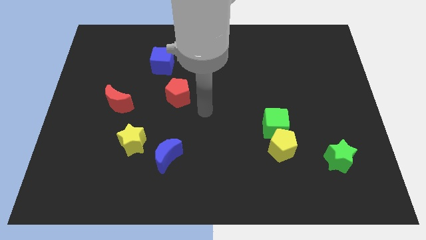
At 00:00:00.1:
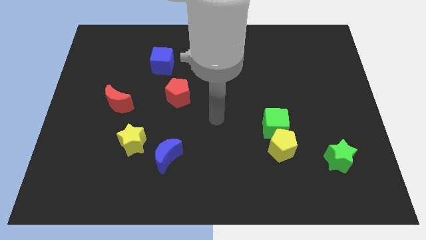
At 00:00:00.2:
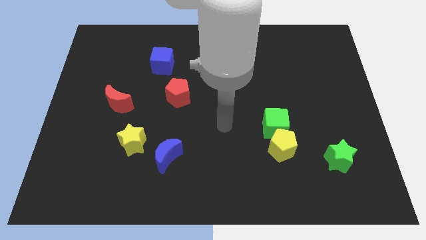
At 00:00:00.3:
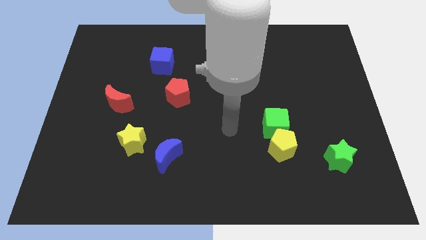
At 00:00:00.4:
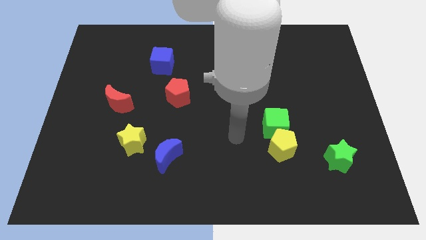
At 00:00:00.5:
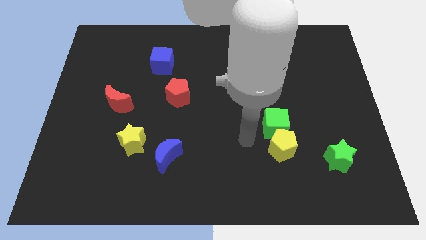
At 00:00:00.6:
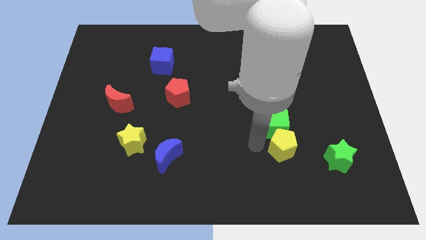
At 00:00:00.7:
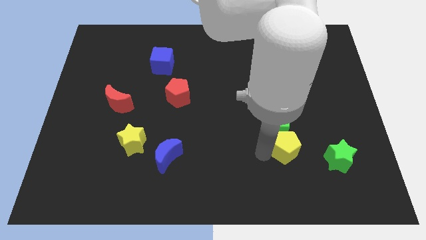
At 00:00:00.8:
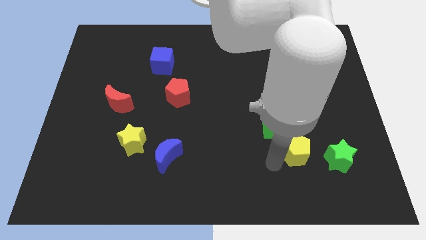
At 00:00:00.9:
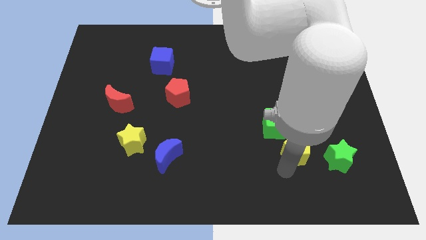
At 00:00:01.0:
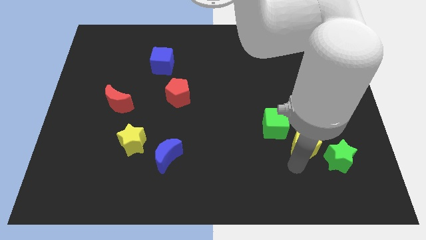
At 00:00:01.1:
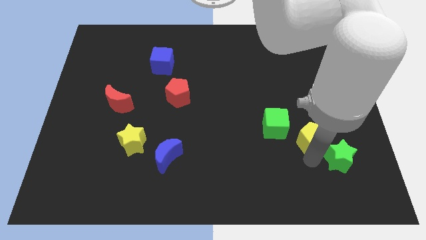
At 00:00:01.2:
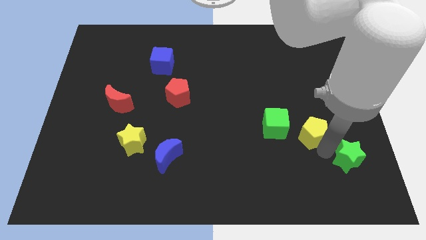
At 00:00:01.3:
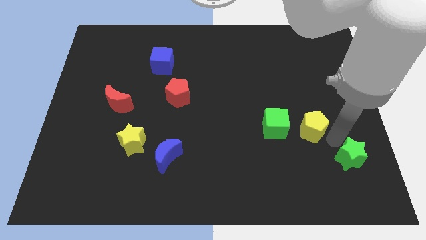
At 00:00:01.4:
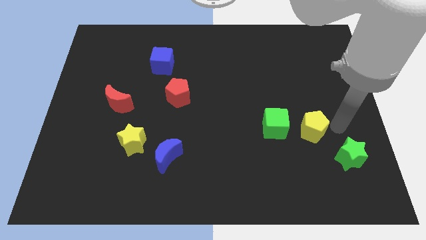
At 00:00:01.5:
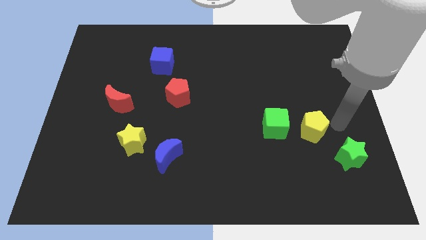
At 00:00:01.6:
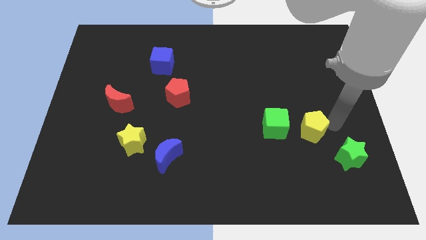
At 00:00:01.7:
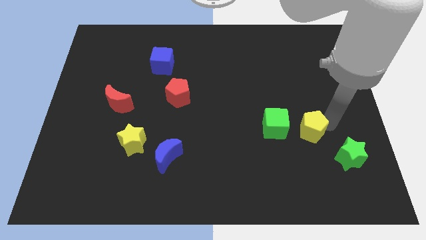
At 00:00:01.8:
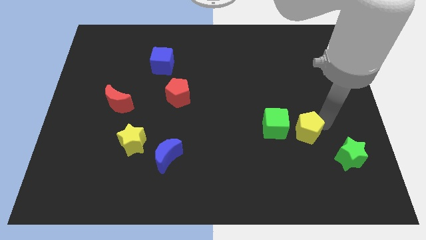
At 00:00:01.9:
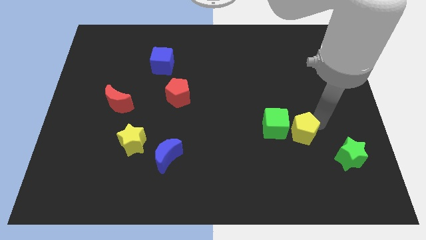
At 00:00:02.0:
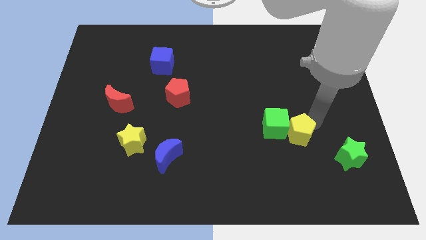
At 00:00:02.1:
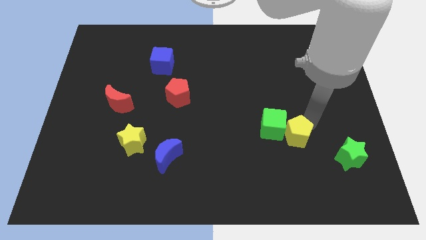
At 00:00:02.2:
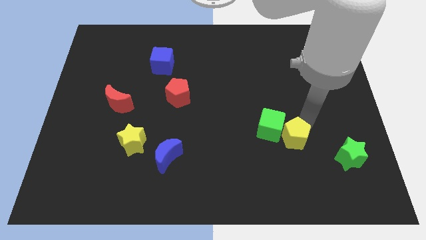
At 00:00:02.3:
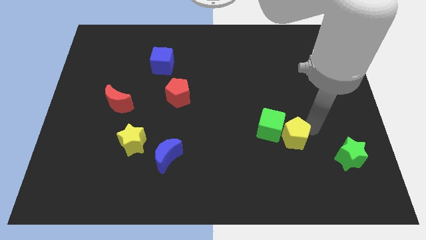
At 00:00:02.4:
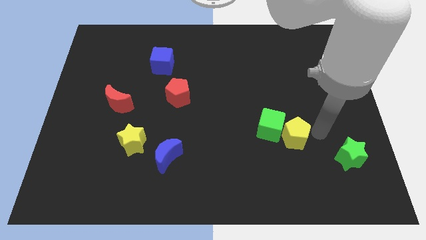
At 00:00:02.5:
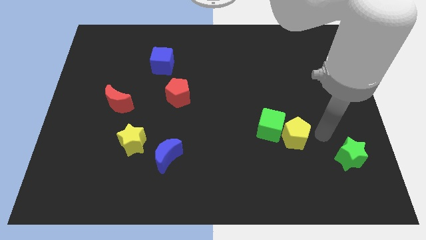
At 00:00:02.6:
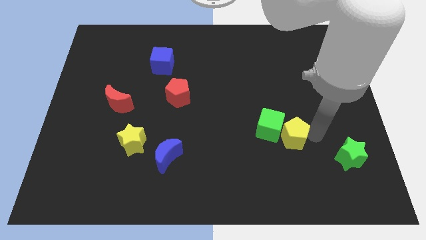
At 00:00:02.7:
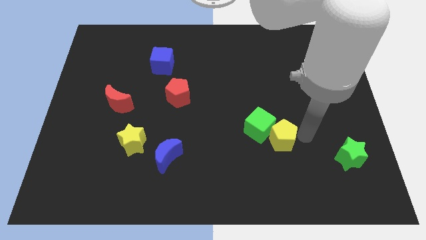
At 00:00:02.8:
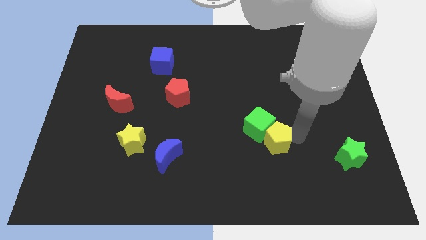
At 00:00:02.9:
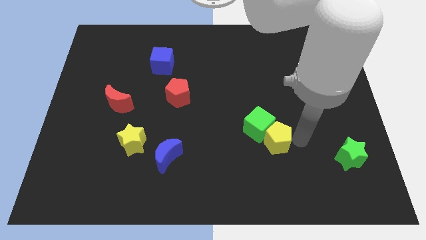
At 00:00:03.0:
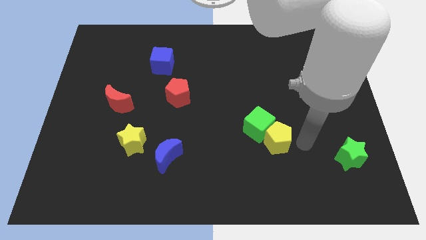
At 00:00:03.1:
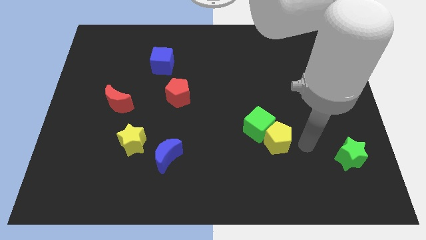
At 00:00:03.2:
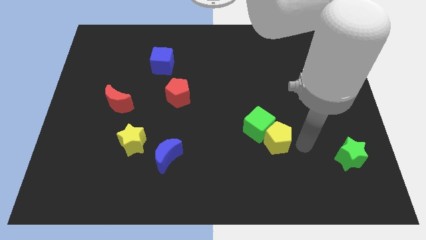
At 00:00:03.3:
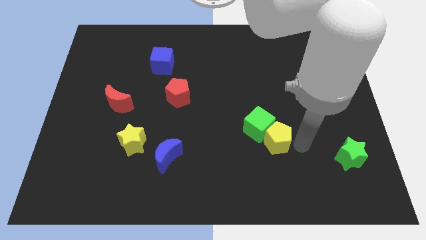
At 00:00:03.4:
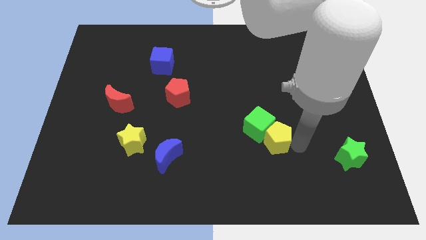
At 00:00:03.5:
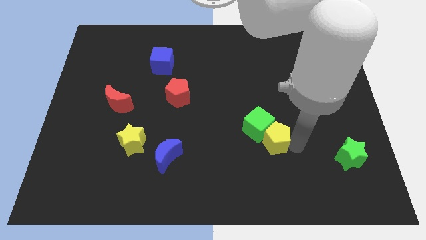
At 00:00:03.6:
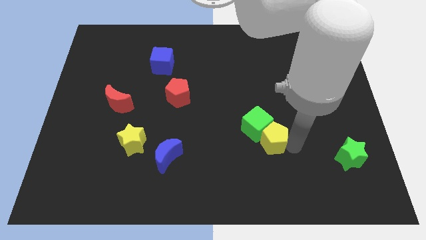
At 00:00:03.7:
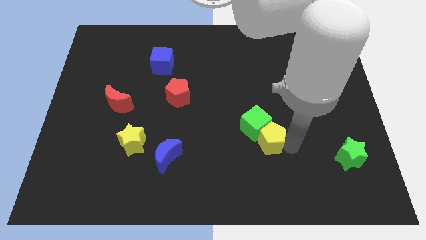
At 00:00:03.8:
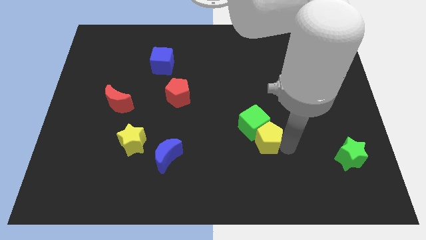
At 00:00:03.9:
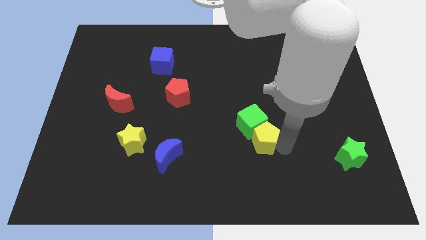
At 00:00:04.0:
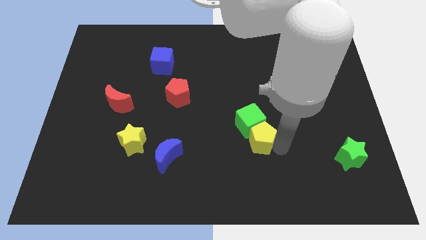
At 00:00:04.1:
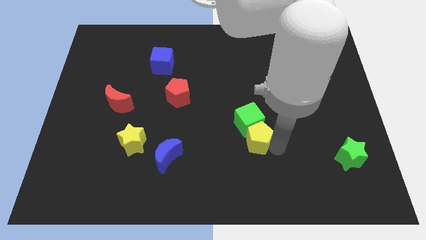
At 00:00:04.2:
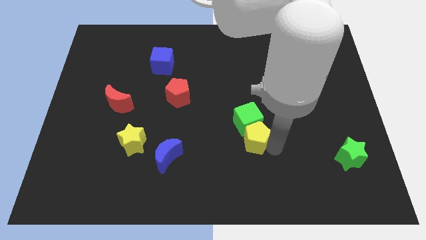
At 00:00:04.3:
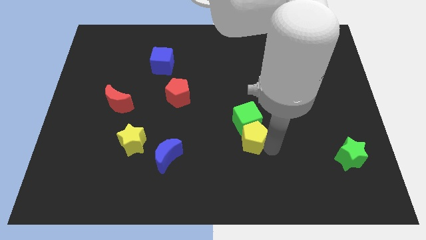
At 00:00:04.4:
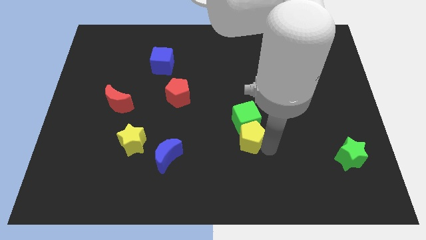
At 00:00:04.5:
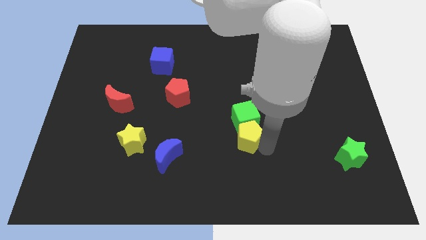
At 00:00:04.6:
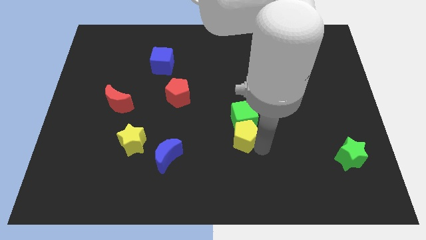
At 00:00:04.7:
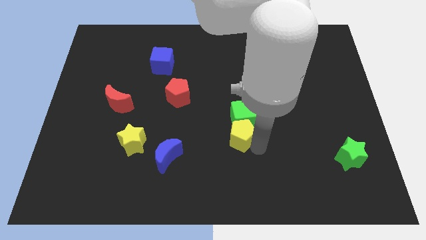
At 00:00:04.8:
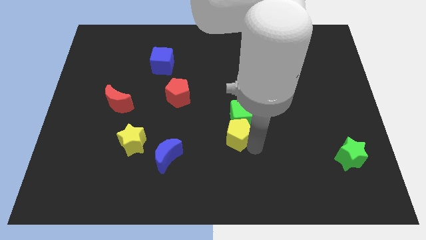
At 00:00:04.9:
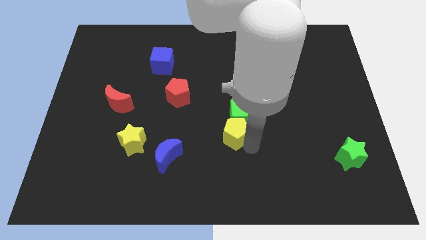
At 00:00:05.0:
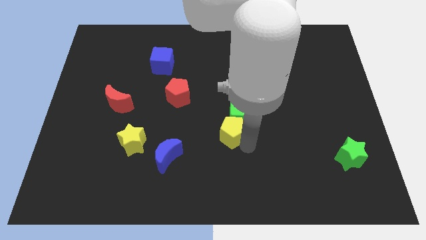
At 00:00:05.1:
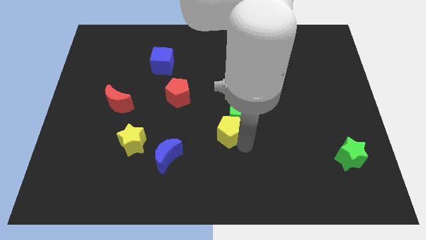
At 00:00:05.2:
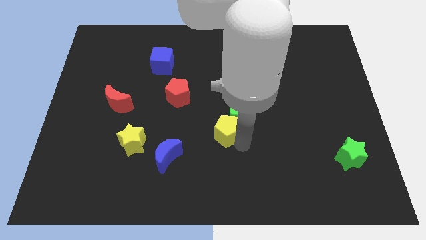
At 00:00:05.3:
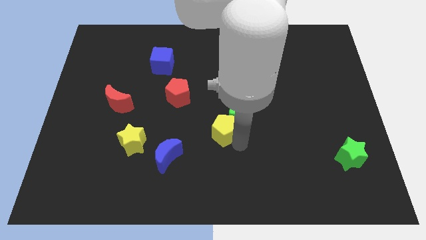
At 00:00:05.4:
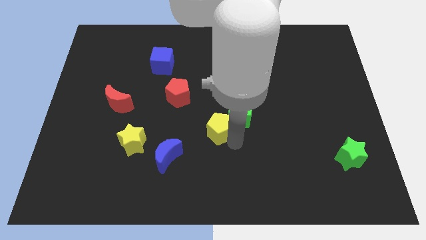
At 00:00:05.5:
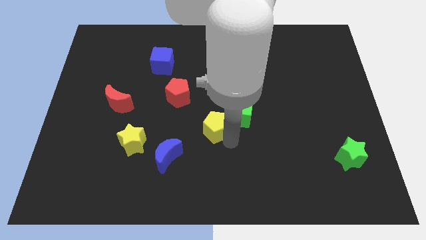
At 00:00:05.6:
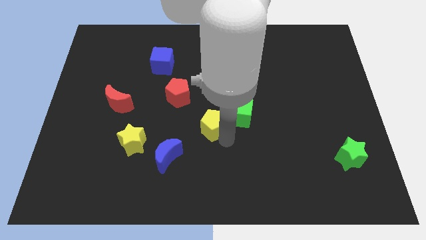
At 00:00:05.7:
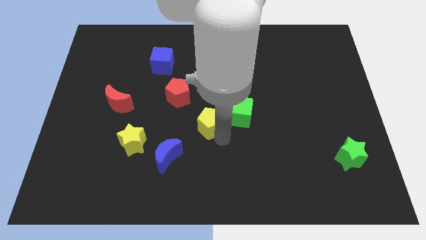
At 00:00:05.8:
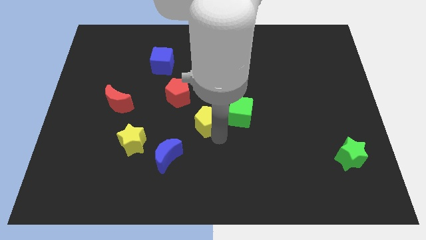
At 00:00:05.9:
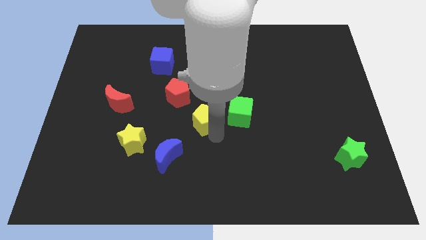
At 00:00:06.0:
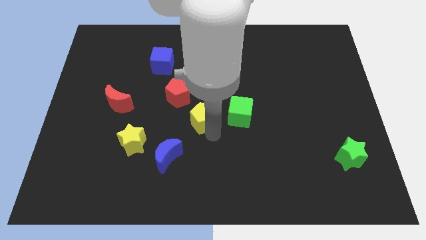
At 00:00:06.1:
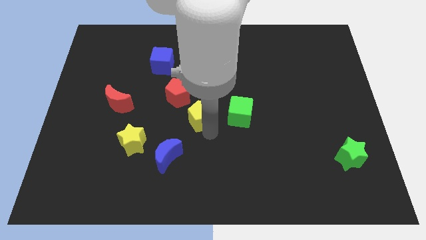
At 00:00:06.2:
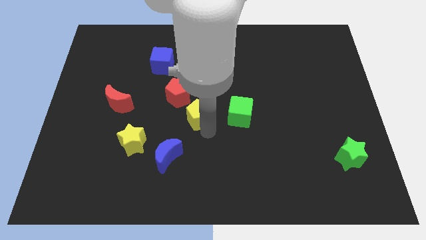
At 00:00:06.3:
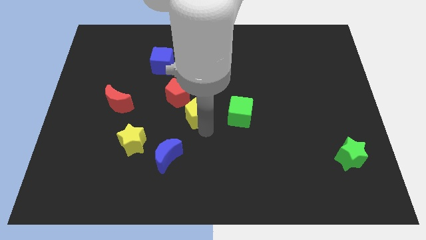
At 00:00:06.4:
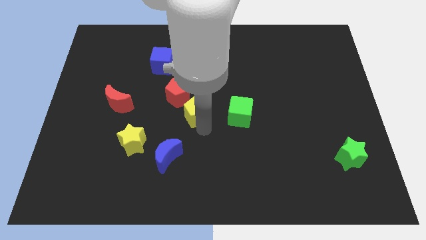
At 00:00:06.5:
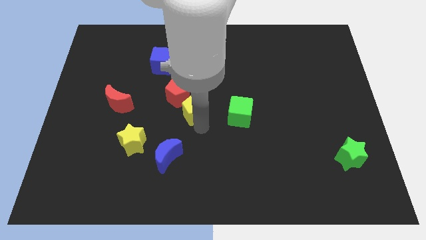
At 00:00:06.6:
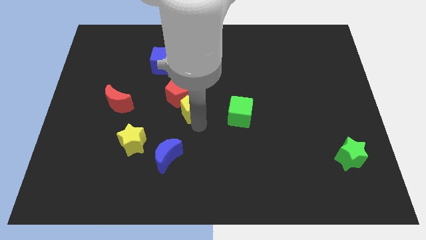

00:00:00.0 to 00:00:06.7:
move the yellow pentagon next to the red pentagon
